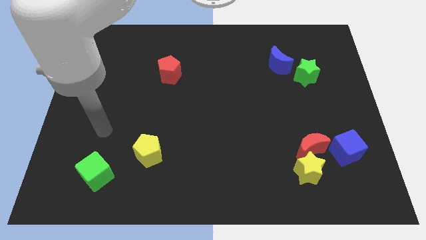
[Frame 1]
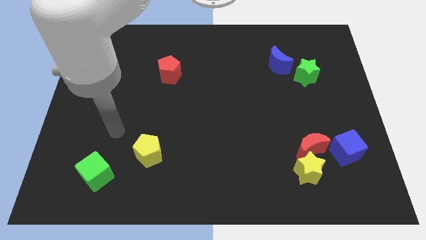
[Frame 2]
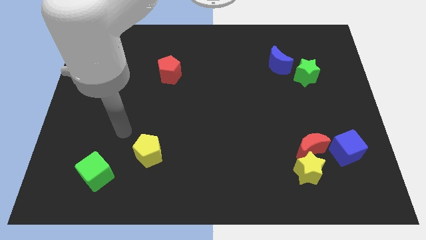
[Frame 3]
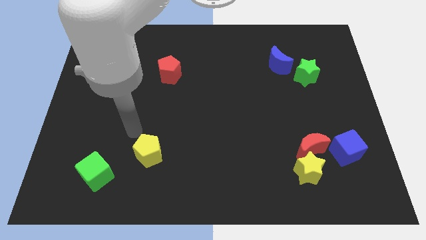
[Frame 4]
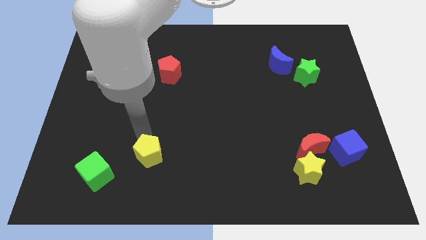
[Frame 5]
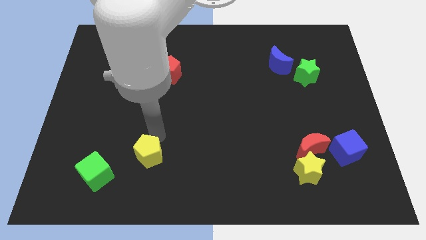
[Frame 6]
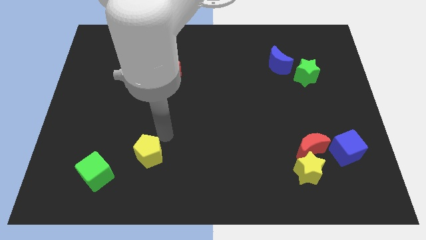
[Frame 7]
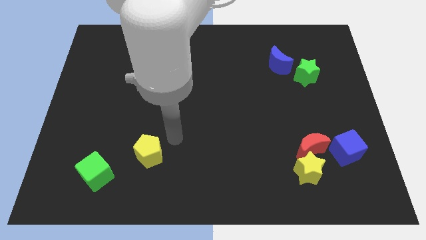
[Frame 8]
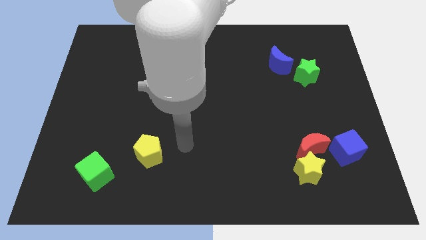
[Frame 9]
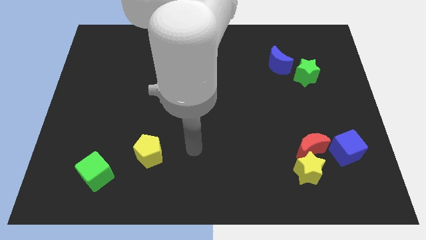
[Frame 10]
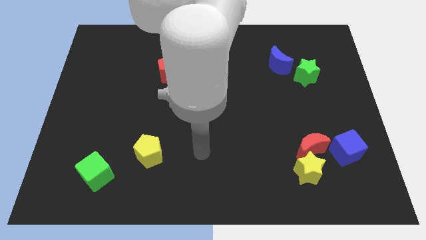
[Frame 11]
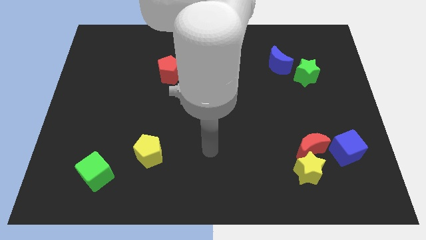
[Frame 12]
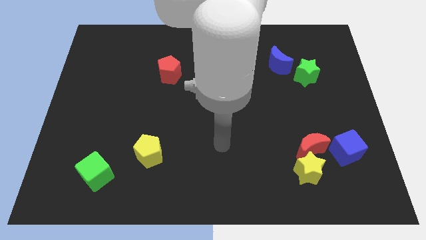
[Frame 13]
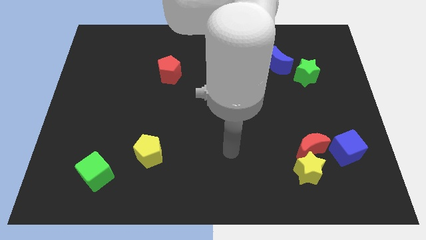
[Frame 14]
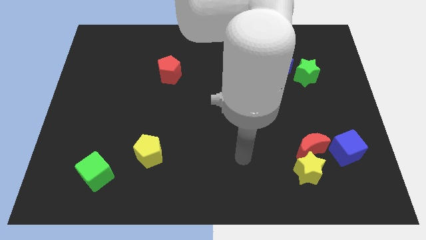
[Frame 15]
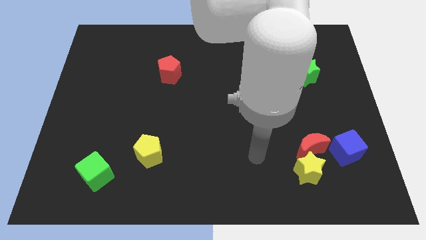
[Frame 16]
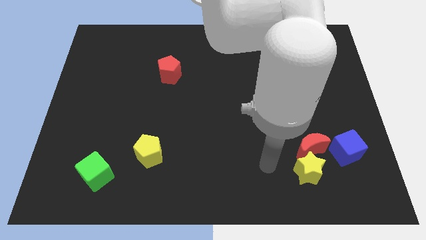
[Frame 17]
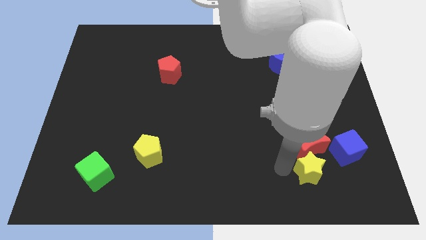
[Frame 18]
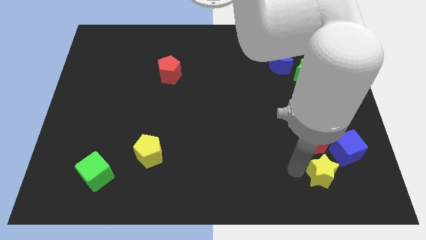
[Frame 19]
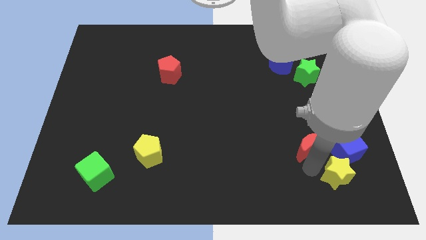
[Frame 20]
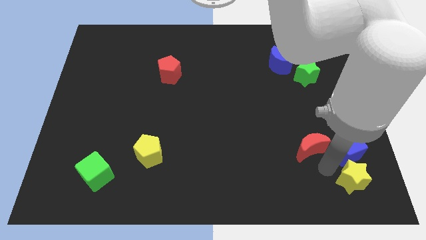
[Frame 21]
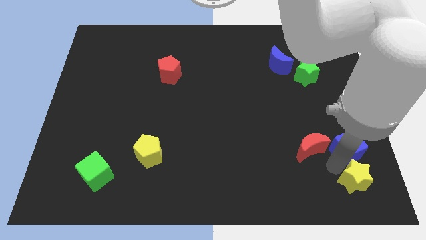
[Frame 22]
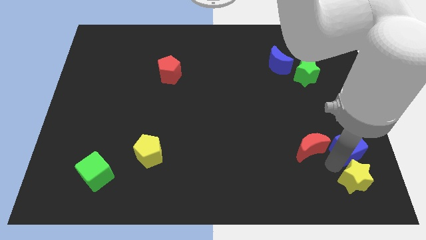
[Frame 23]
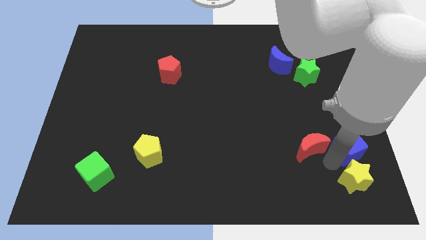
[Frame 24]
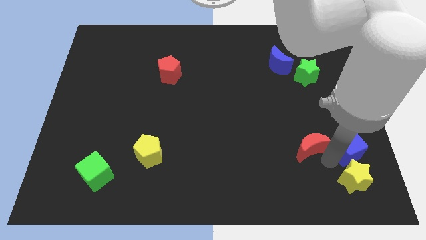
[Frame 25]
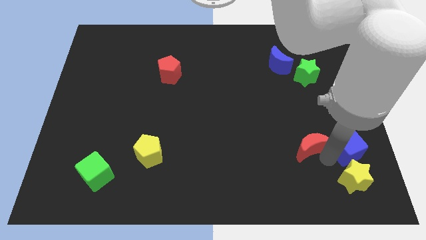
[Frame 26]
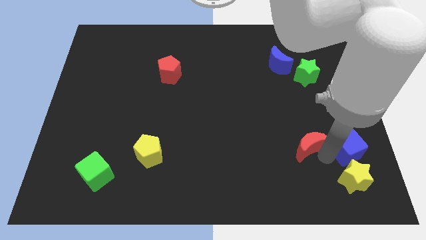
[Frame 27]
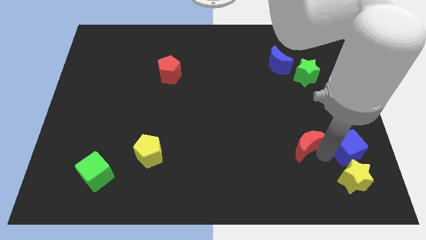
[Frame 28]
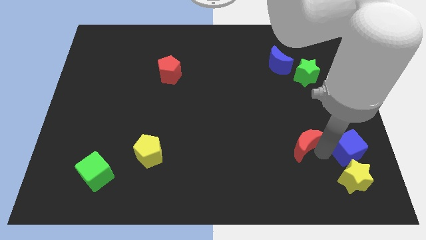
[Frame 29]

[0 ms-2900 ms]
move the red moon away from the yellow star and blue cube

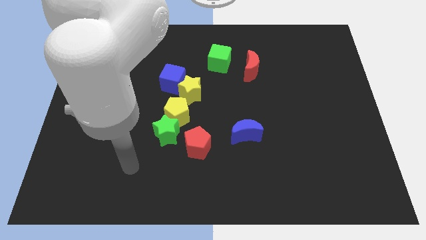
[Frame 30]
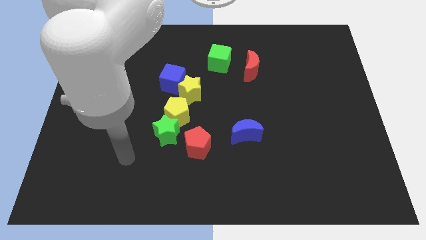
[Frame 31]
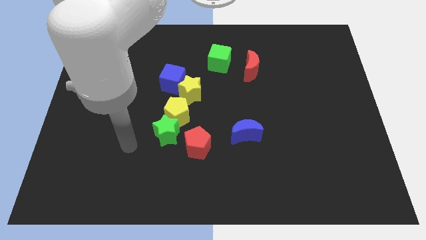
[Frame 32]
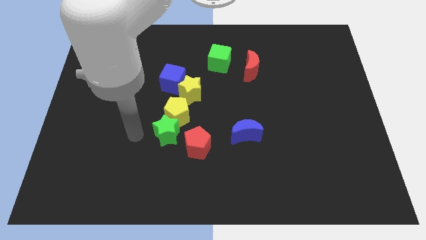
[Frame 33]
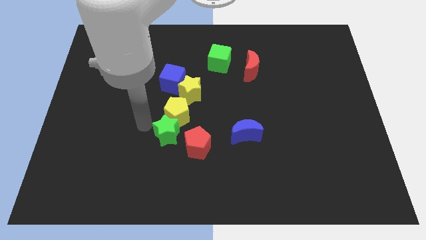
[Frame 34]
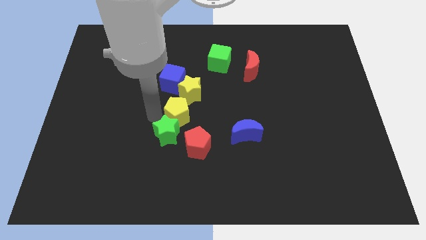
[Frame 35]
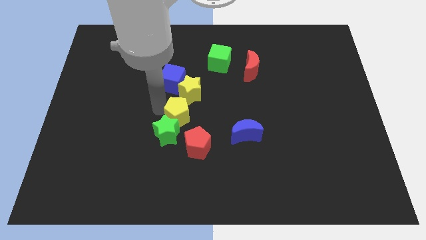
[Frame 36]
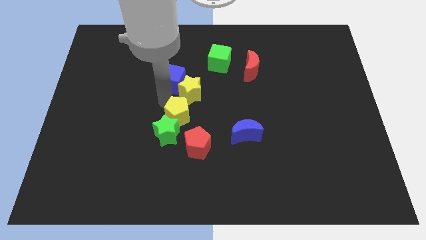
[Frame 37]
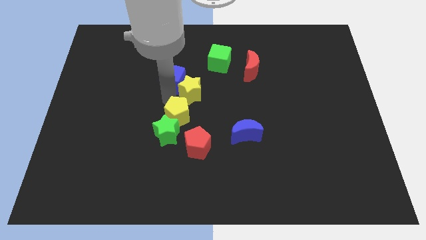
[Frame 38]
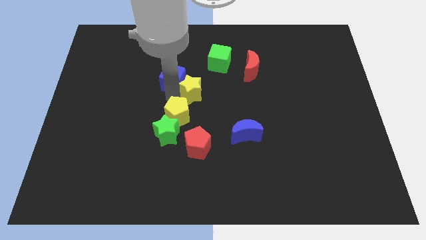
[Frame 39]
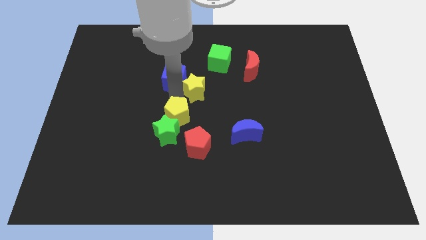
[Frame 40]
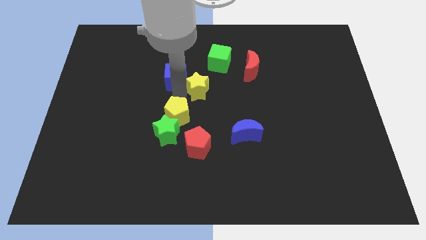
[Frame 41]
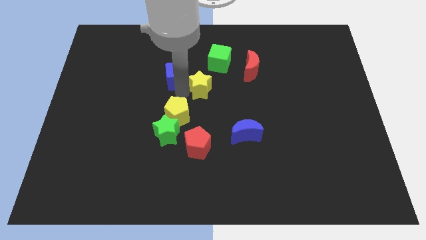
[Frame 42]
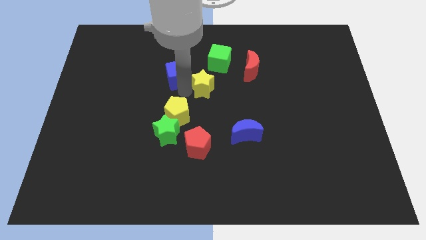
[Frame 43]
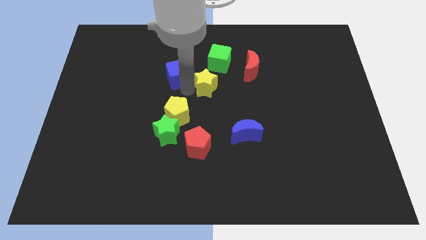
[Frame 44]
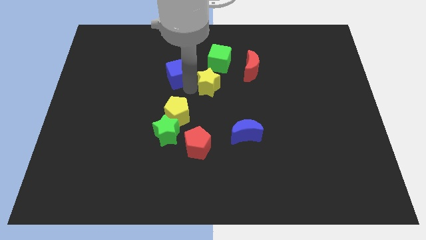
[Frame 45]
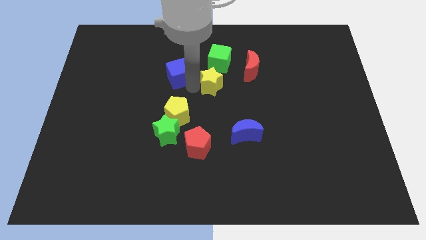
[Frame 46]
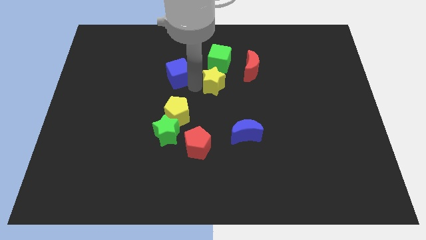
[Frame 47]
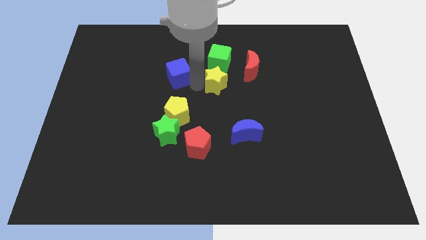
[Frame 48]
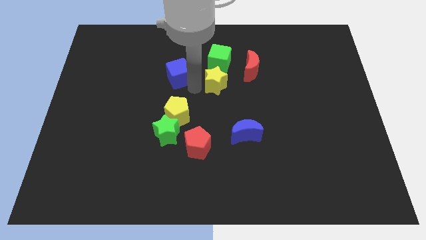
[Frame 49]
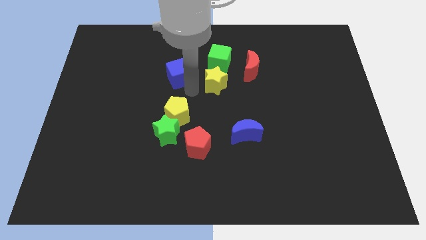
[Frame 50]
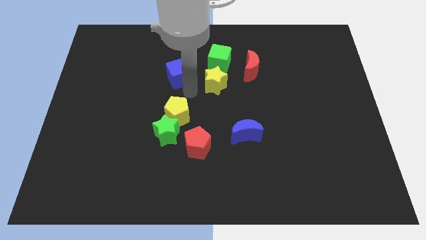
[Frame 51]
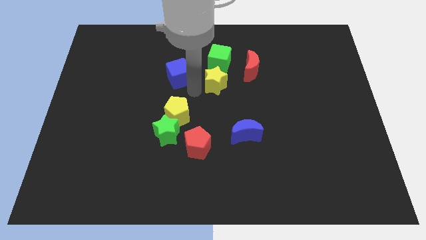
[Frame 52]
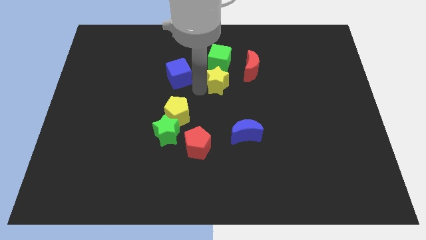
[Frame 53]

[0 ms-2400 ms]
separate the yellow star from the blue cube and yellow pentagon

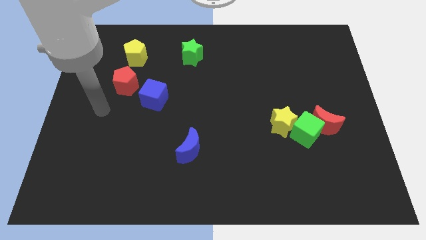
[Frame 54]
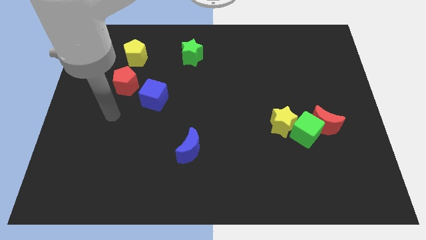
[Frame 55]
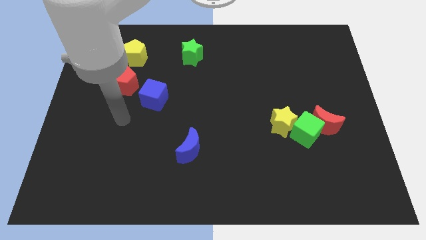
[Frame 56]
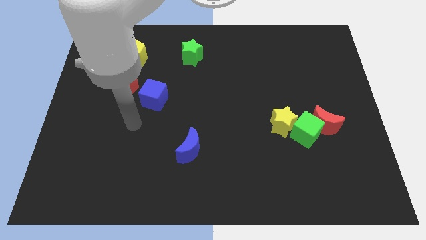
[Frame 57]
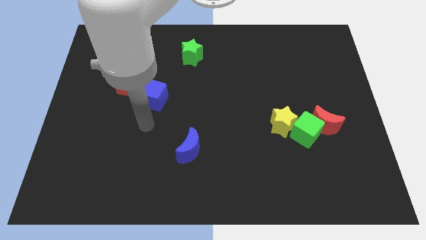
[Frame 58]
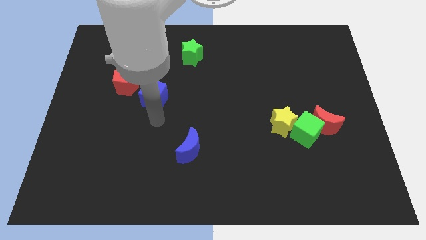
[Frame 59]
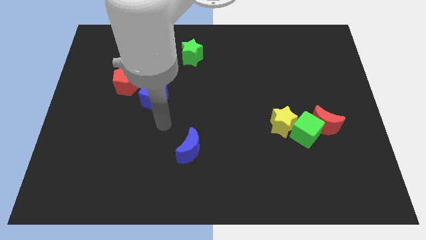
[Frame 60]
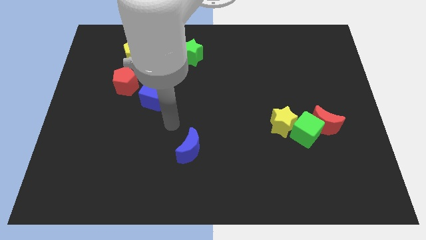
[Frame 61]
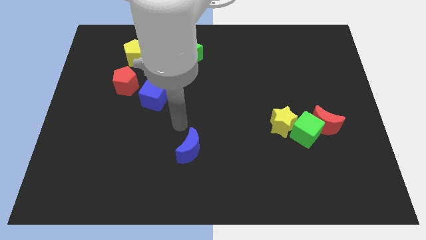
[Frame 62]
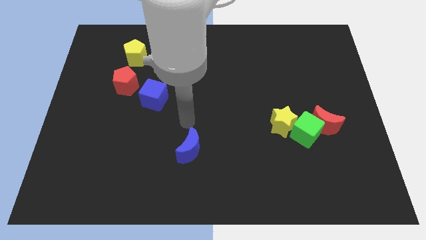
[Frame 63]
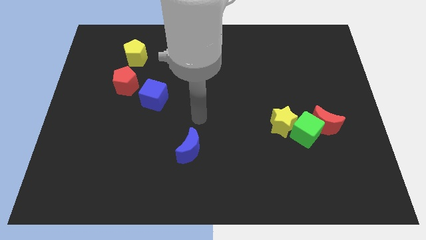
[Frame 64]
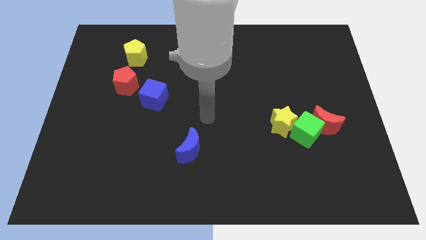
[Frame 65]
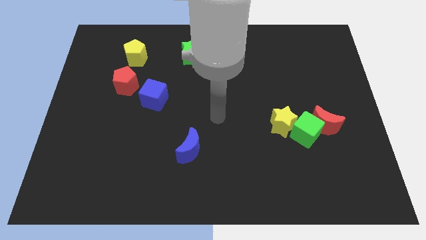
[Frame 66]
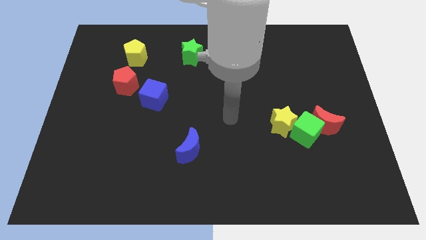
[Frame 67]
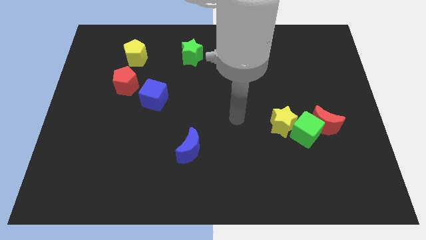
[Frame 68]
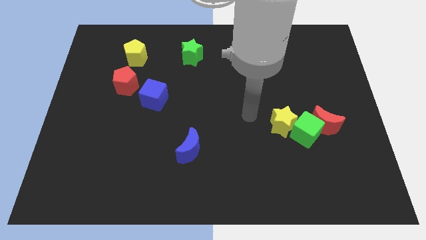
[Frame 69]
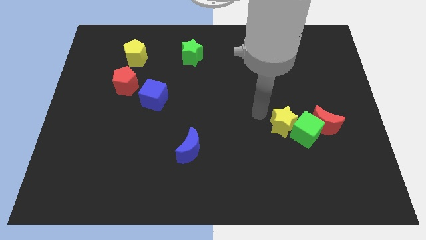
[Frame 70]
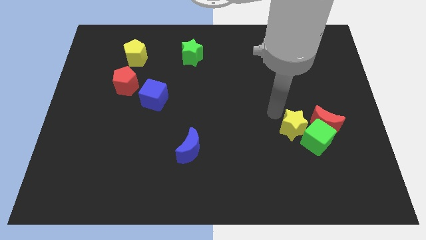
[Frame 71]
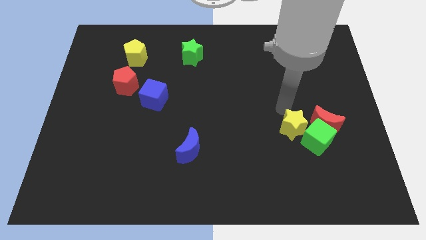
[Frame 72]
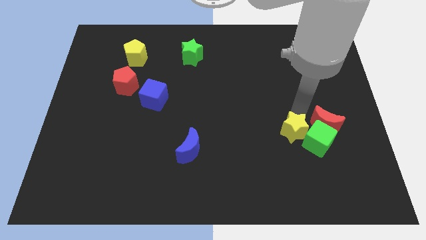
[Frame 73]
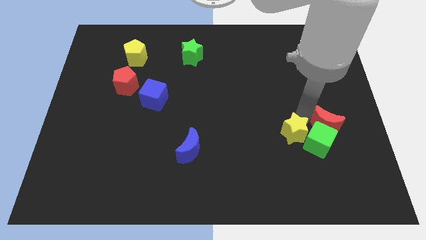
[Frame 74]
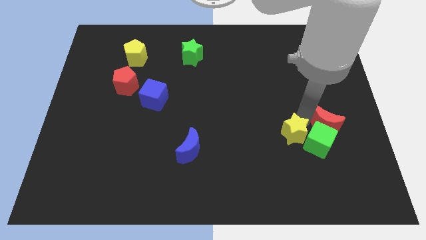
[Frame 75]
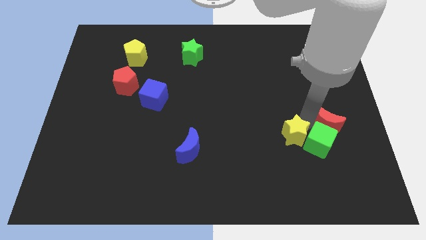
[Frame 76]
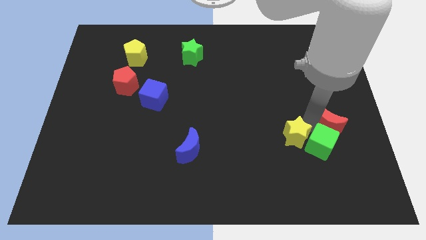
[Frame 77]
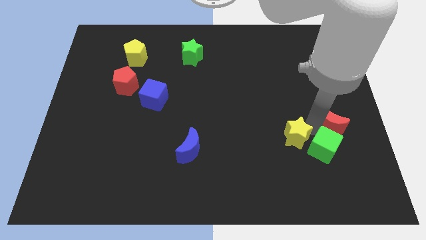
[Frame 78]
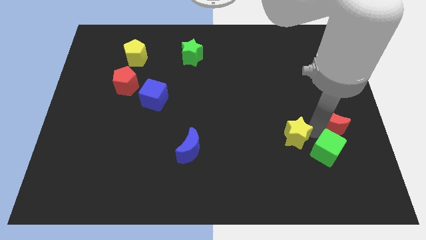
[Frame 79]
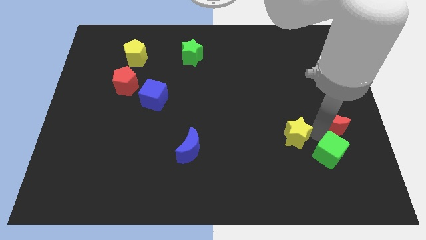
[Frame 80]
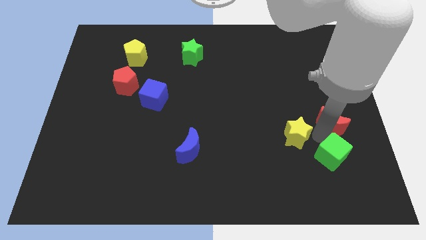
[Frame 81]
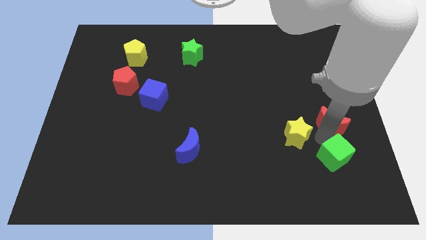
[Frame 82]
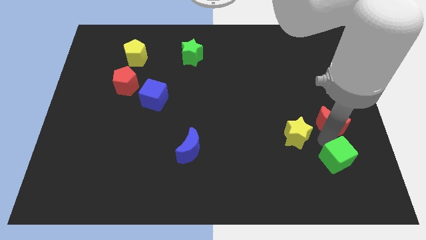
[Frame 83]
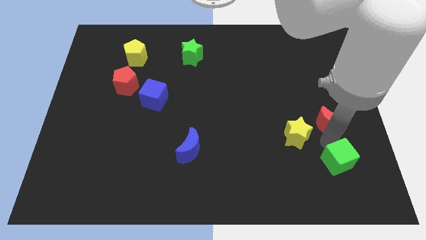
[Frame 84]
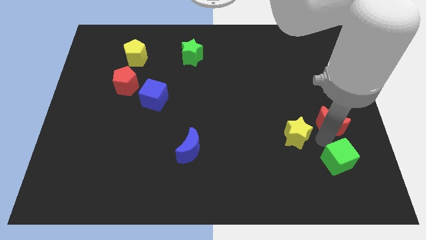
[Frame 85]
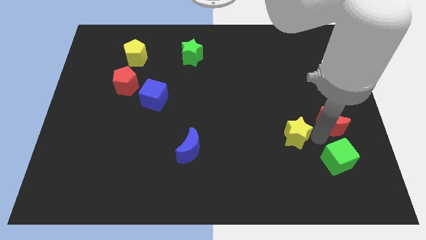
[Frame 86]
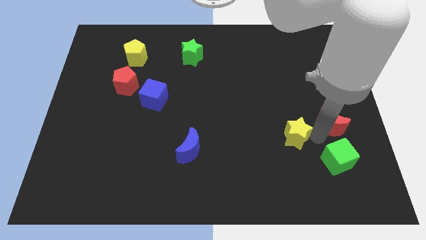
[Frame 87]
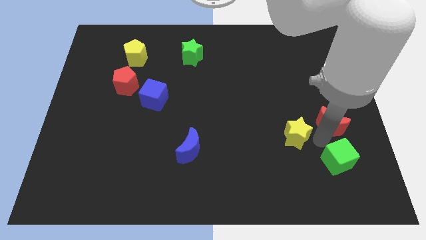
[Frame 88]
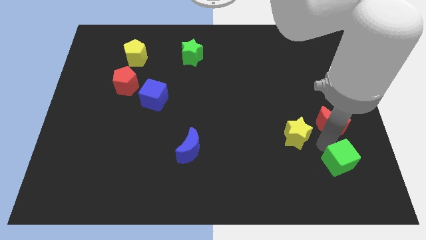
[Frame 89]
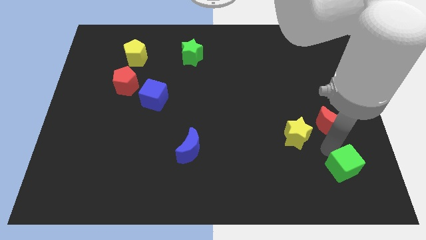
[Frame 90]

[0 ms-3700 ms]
pull the green cube apart from the red moon and yellow star

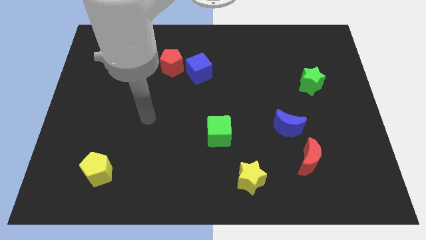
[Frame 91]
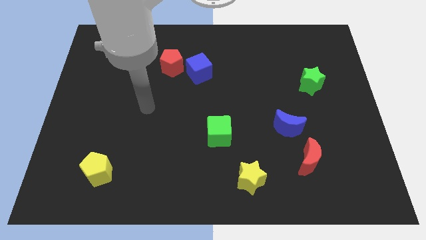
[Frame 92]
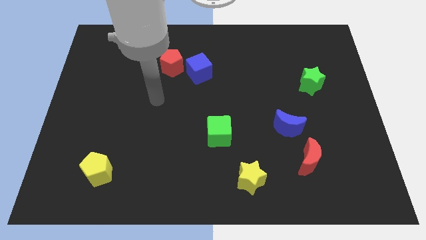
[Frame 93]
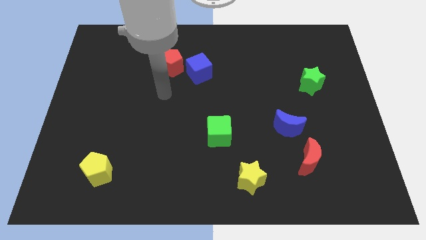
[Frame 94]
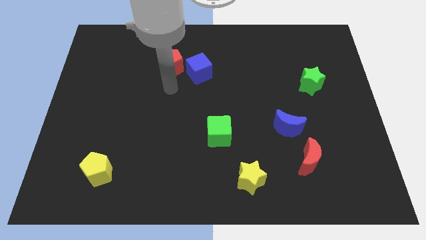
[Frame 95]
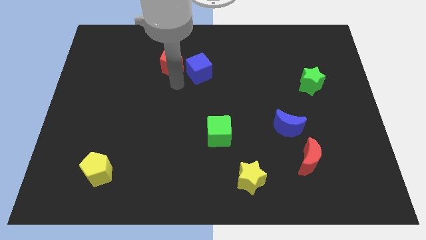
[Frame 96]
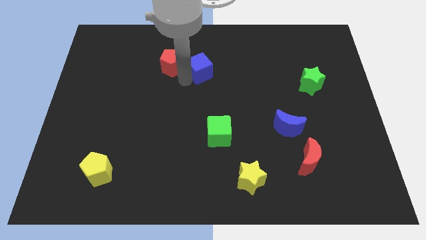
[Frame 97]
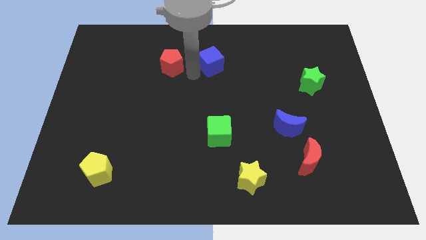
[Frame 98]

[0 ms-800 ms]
move the red pentagon away from the blue cube
